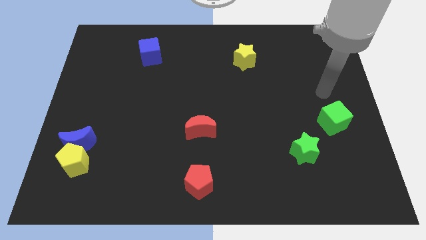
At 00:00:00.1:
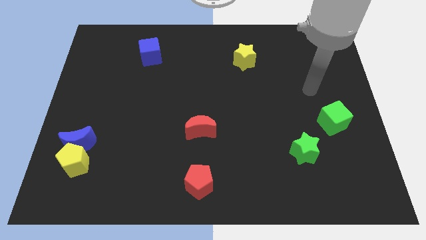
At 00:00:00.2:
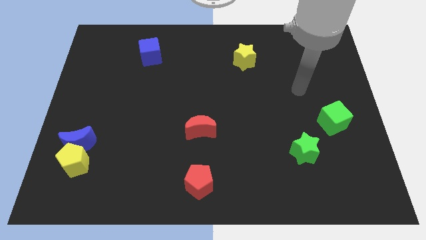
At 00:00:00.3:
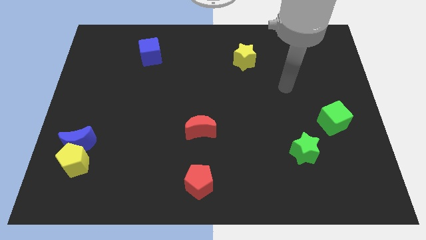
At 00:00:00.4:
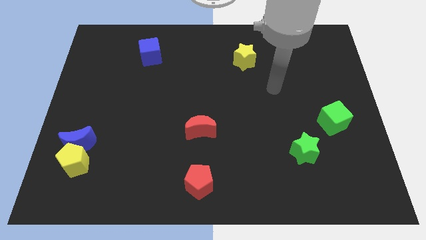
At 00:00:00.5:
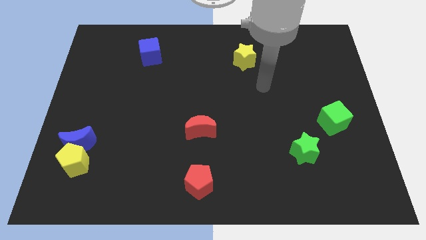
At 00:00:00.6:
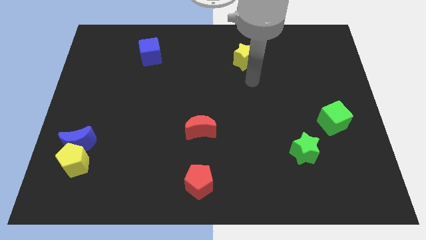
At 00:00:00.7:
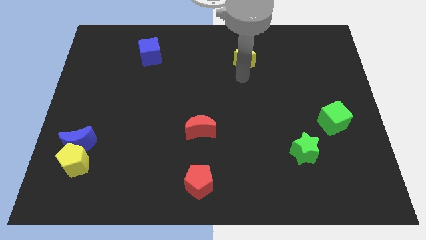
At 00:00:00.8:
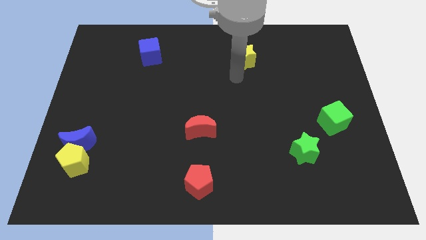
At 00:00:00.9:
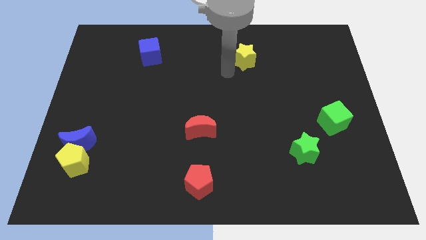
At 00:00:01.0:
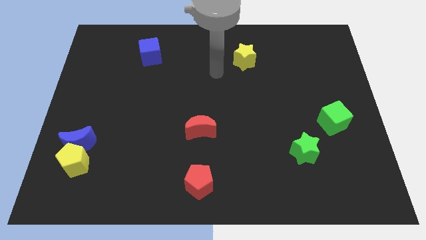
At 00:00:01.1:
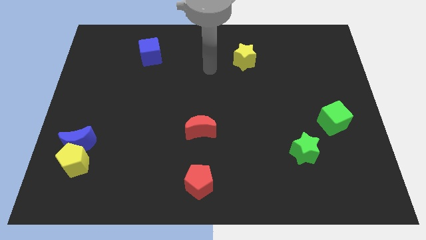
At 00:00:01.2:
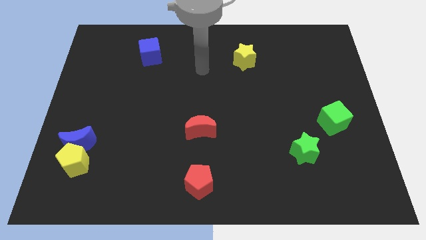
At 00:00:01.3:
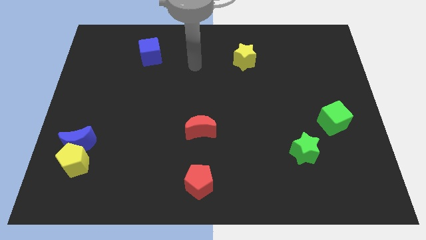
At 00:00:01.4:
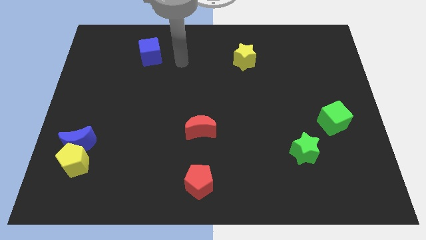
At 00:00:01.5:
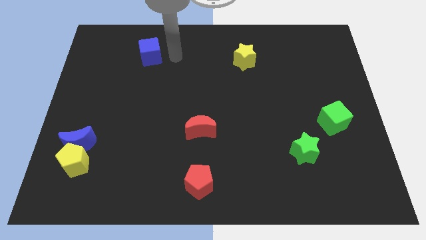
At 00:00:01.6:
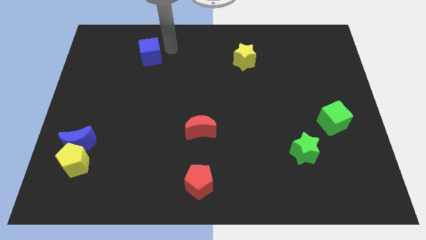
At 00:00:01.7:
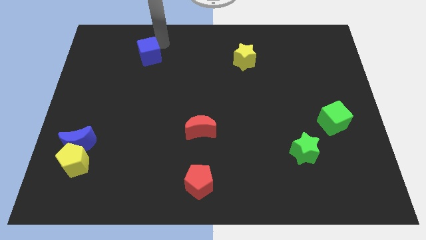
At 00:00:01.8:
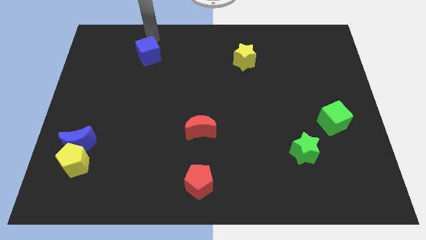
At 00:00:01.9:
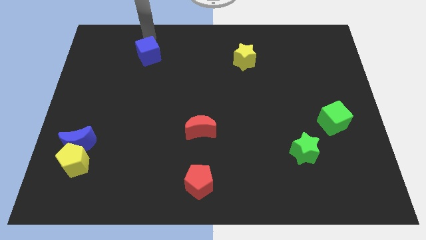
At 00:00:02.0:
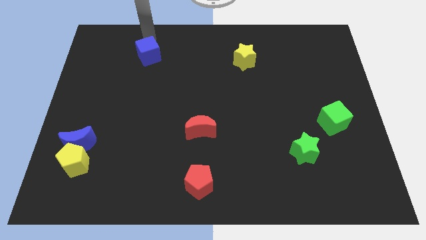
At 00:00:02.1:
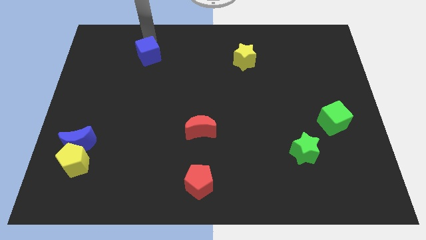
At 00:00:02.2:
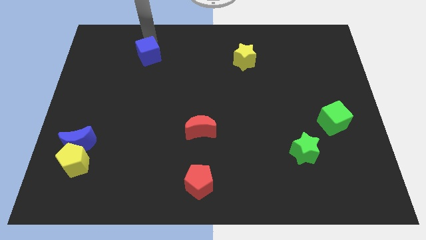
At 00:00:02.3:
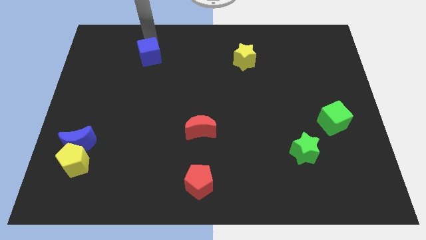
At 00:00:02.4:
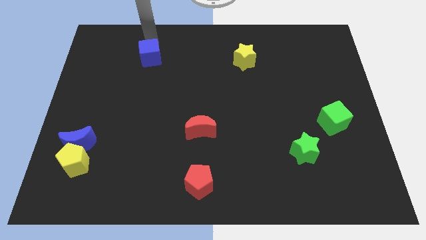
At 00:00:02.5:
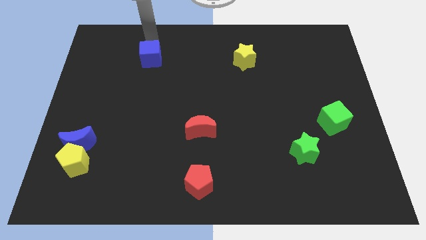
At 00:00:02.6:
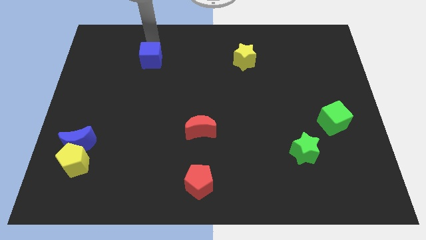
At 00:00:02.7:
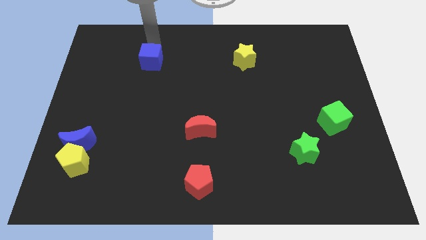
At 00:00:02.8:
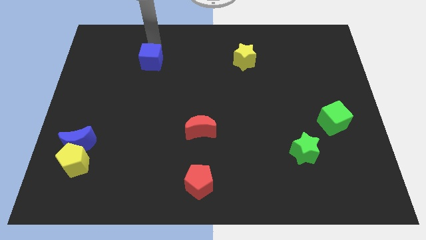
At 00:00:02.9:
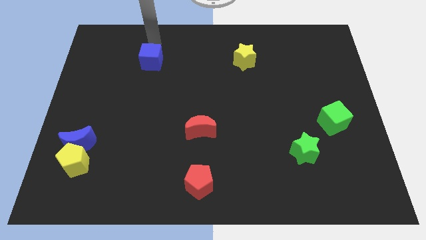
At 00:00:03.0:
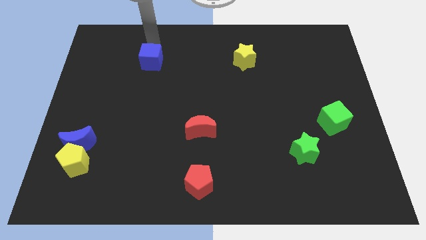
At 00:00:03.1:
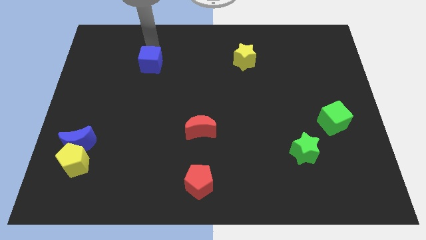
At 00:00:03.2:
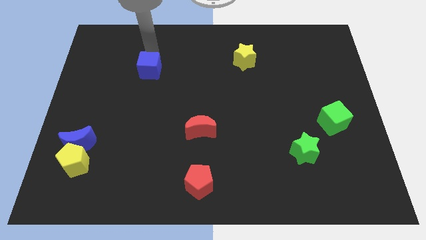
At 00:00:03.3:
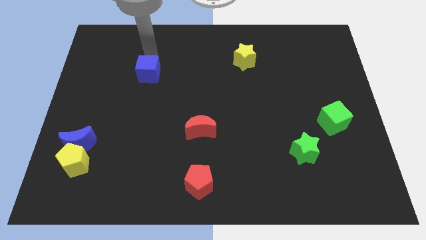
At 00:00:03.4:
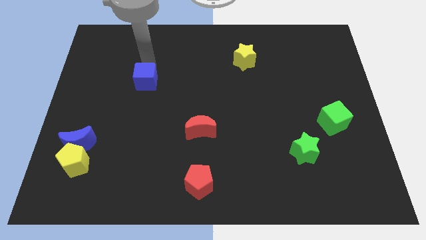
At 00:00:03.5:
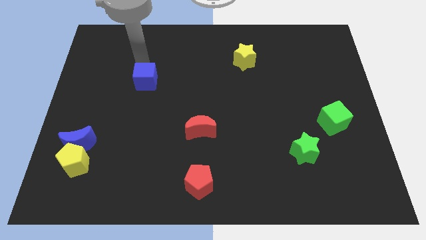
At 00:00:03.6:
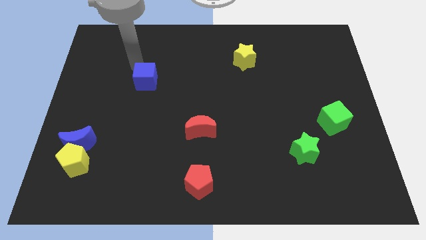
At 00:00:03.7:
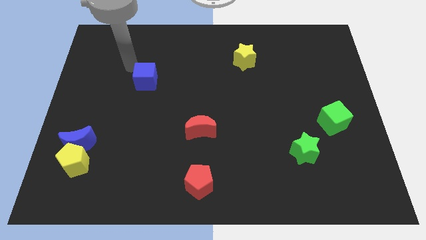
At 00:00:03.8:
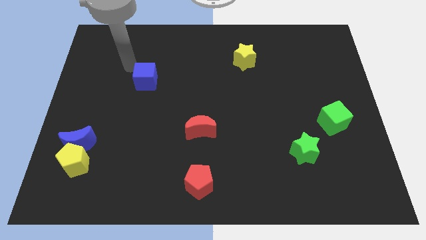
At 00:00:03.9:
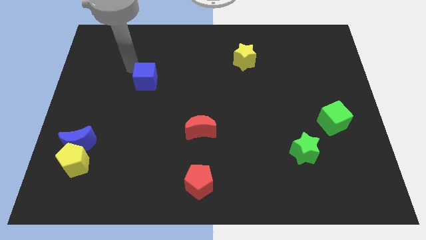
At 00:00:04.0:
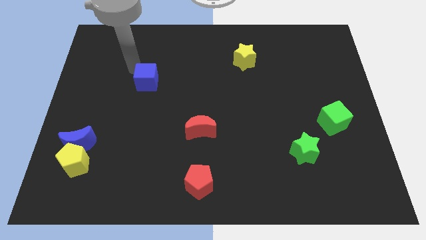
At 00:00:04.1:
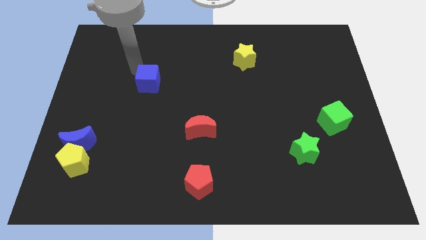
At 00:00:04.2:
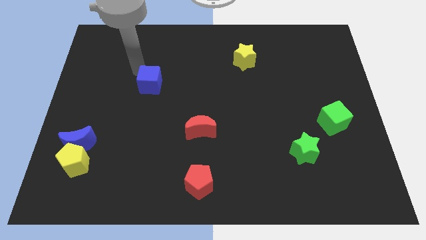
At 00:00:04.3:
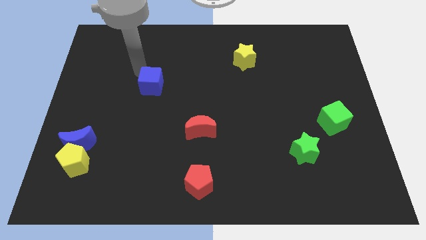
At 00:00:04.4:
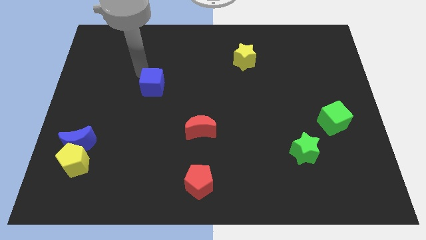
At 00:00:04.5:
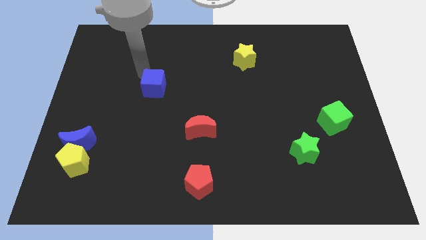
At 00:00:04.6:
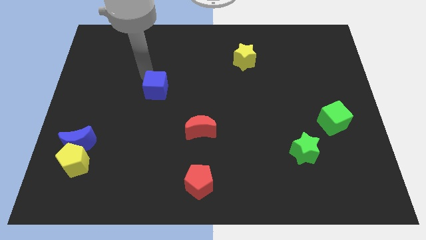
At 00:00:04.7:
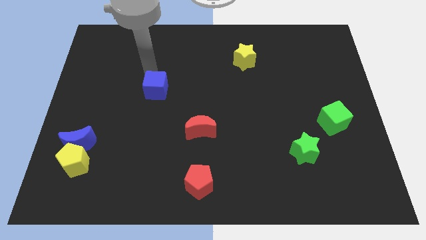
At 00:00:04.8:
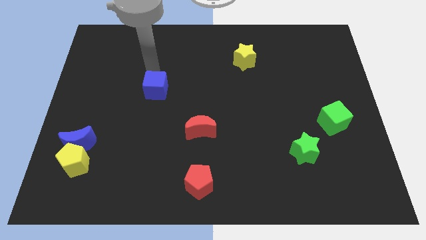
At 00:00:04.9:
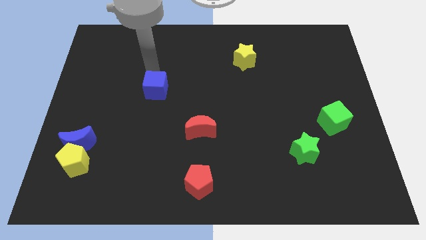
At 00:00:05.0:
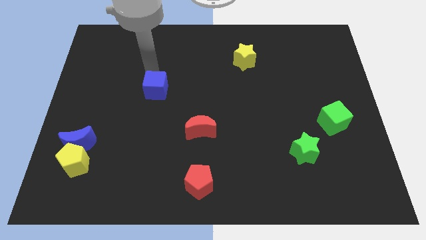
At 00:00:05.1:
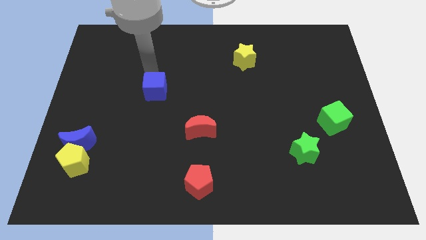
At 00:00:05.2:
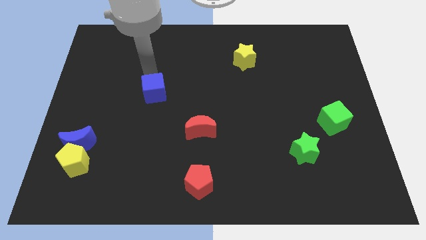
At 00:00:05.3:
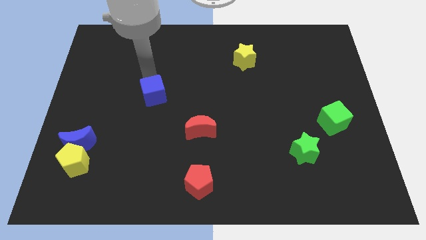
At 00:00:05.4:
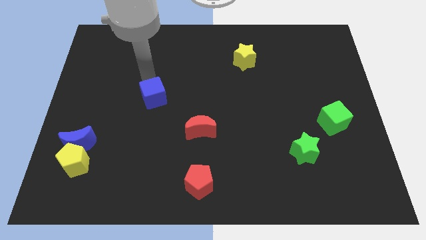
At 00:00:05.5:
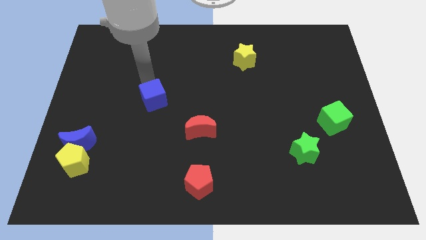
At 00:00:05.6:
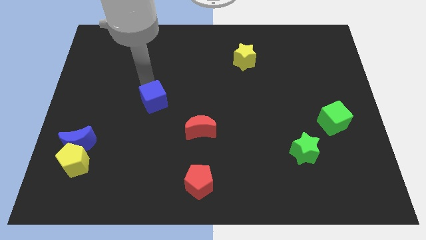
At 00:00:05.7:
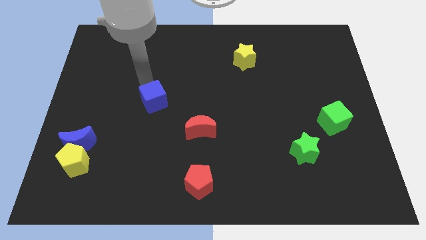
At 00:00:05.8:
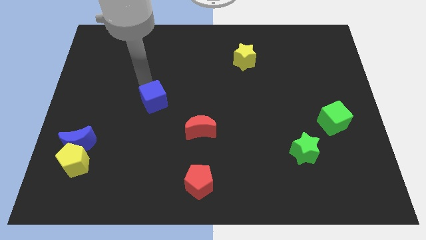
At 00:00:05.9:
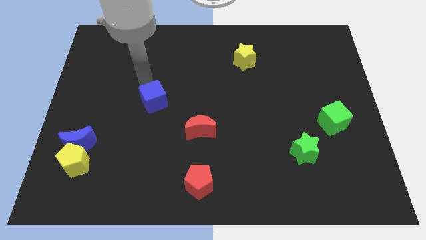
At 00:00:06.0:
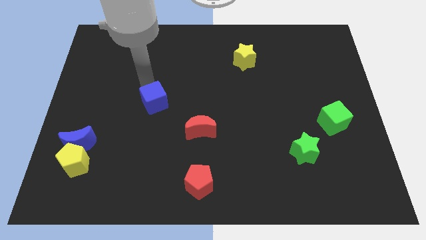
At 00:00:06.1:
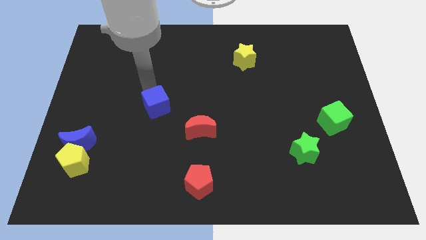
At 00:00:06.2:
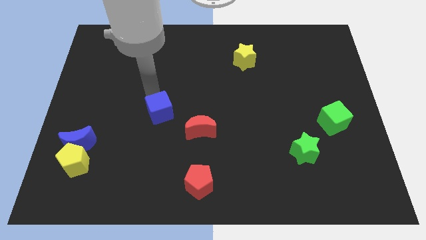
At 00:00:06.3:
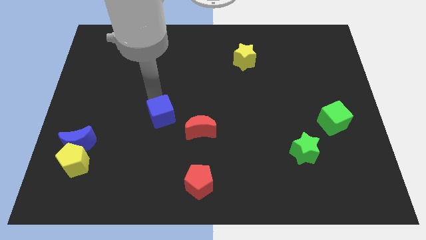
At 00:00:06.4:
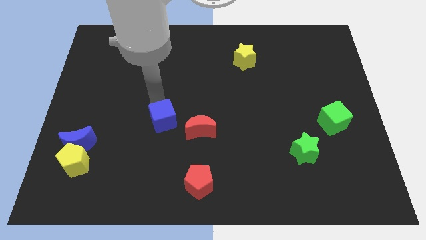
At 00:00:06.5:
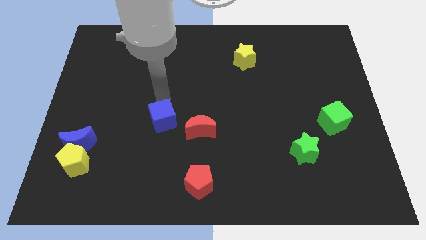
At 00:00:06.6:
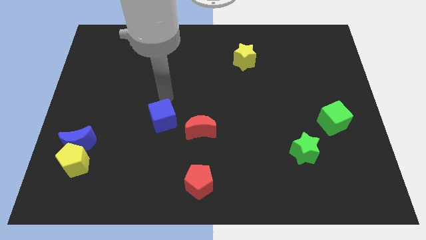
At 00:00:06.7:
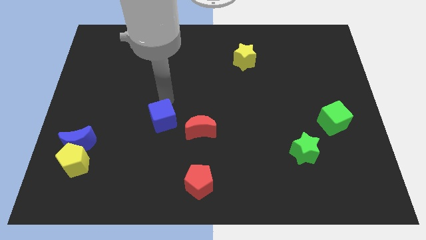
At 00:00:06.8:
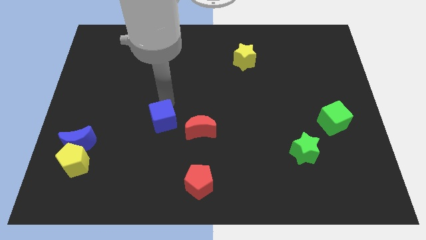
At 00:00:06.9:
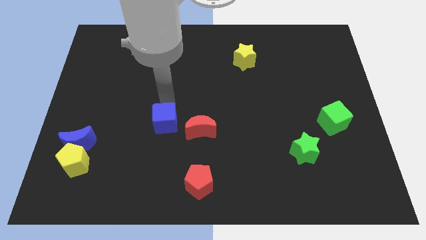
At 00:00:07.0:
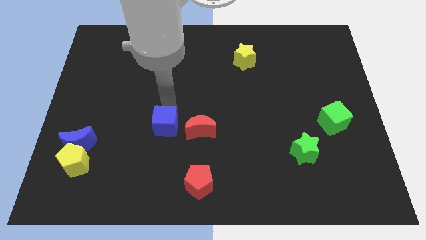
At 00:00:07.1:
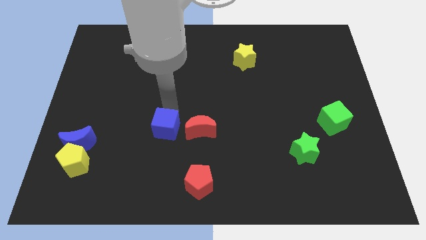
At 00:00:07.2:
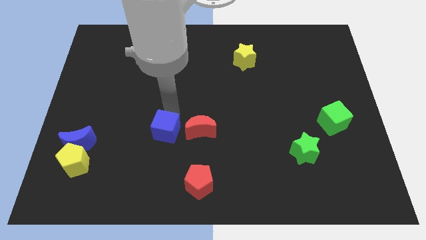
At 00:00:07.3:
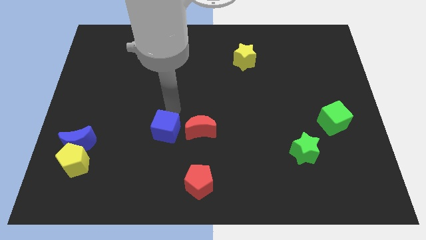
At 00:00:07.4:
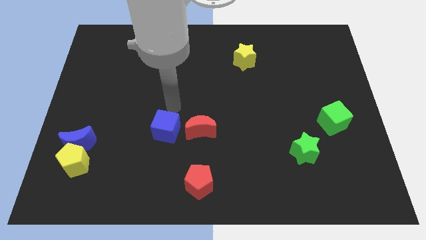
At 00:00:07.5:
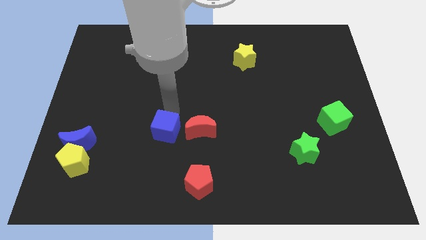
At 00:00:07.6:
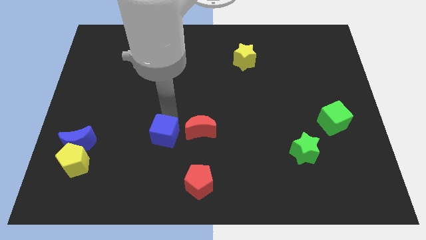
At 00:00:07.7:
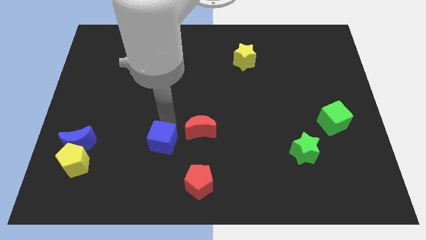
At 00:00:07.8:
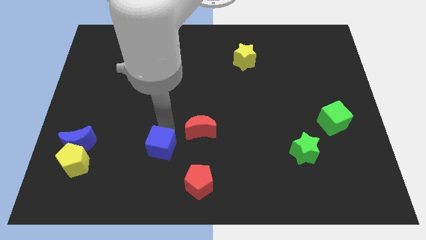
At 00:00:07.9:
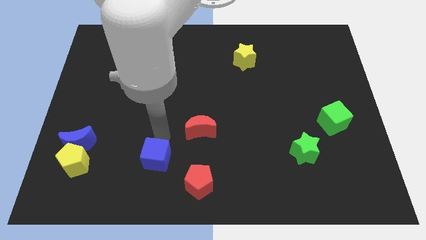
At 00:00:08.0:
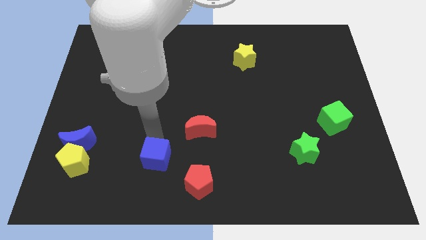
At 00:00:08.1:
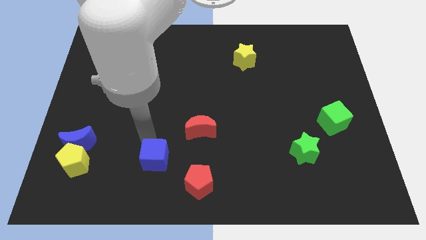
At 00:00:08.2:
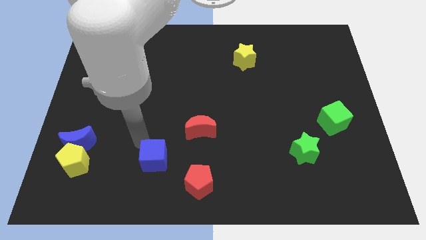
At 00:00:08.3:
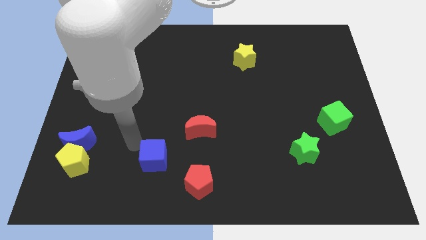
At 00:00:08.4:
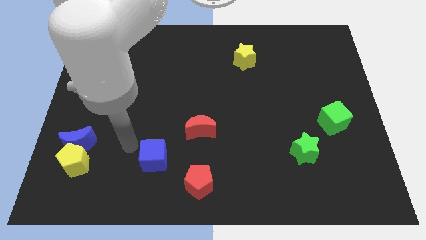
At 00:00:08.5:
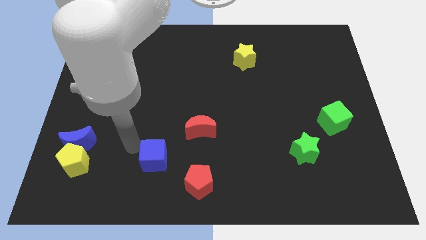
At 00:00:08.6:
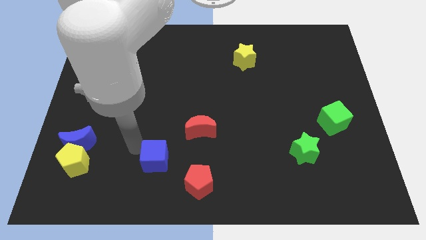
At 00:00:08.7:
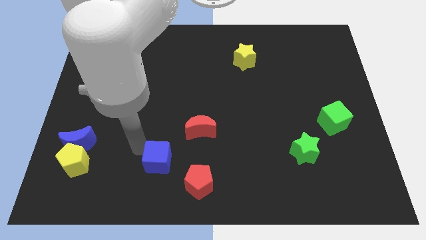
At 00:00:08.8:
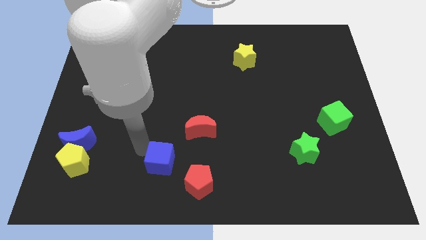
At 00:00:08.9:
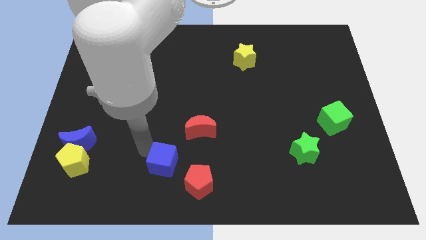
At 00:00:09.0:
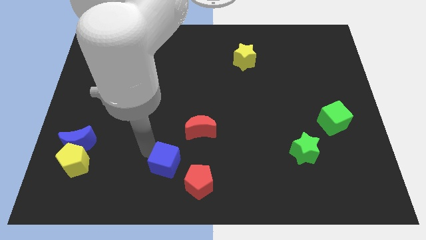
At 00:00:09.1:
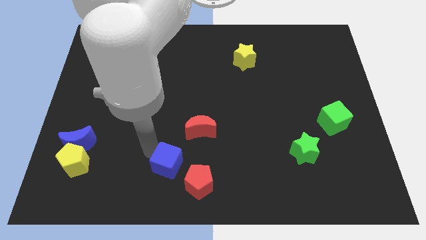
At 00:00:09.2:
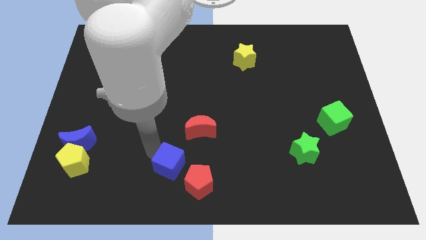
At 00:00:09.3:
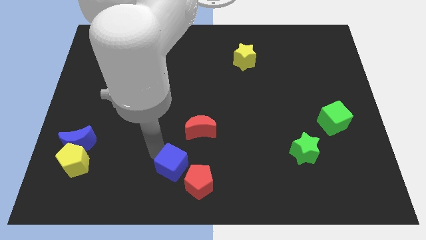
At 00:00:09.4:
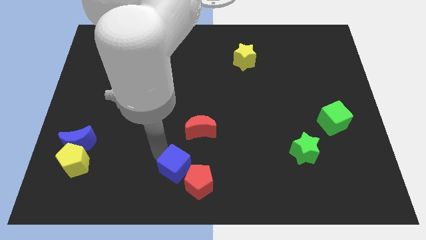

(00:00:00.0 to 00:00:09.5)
push the blue cube to the red pentagon
